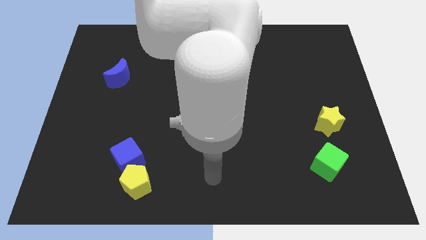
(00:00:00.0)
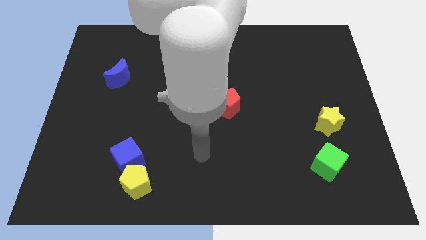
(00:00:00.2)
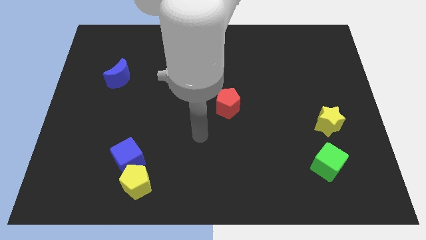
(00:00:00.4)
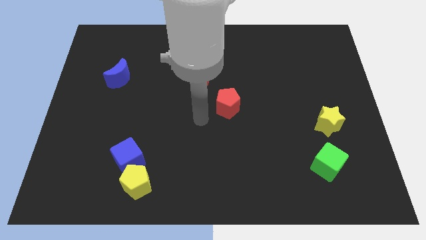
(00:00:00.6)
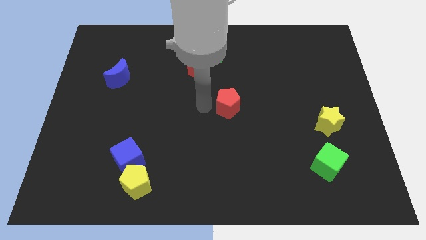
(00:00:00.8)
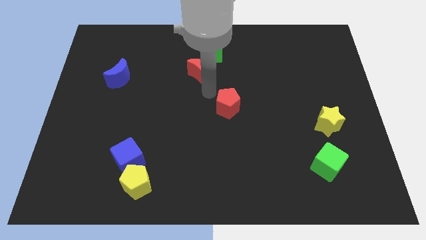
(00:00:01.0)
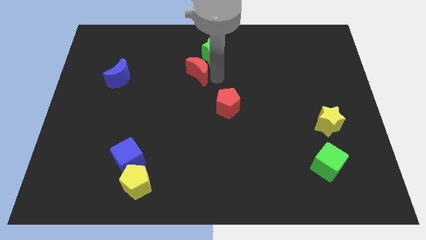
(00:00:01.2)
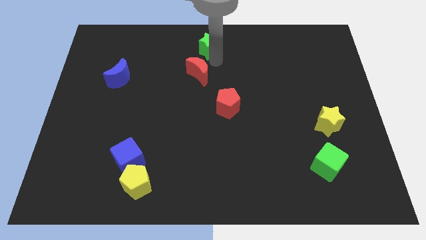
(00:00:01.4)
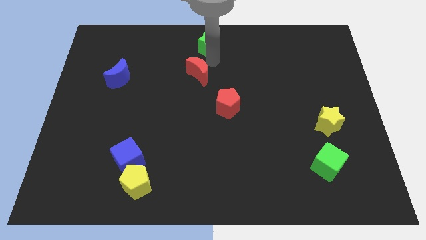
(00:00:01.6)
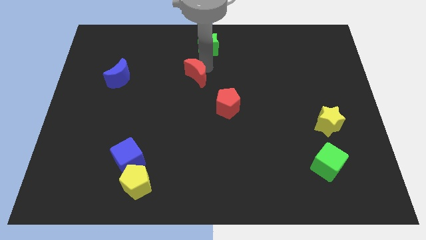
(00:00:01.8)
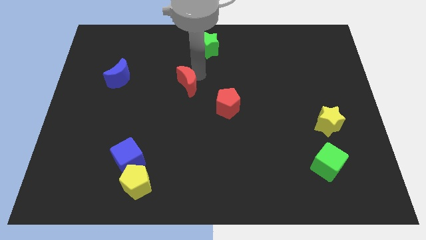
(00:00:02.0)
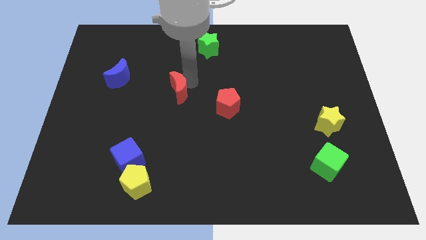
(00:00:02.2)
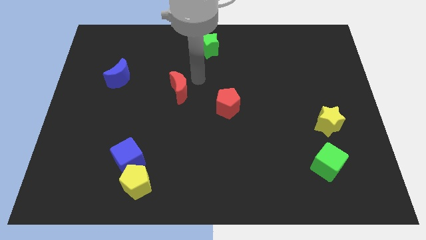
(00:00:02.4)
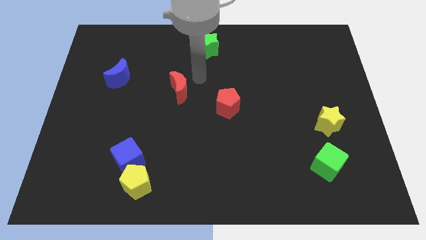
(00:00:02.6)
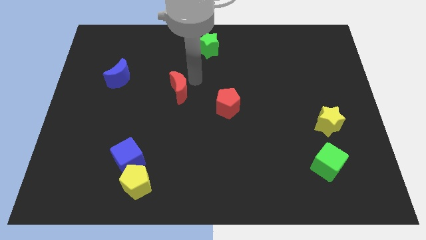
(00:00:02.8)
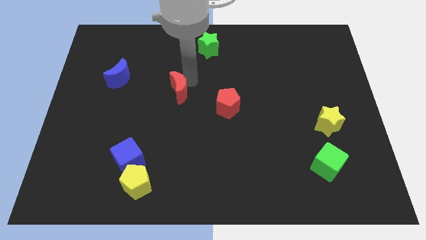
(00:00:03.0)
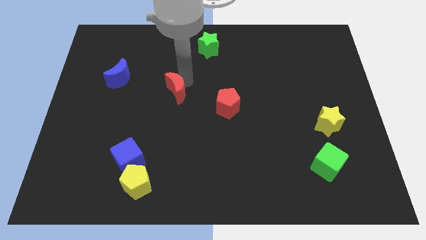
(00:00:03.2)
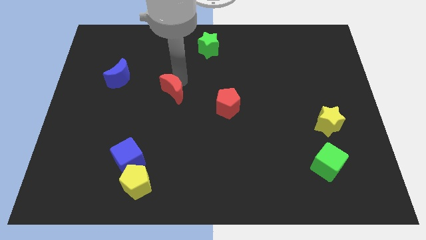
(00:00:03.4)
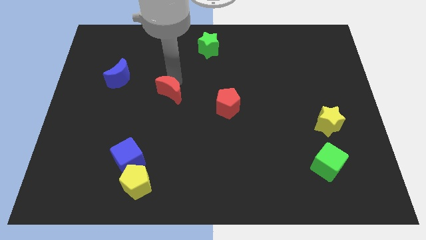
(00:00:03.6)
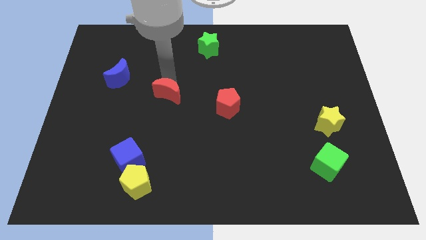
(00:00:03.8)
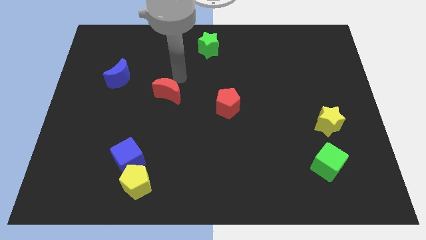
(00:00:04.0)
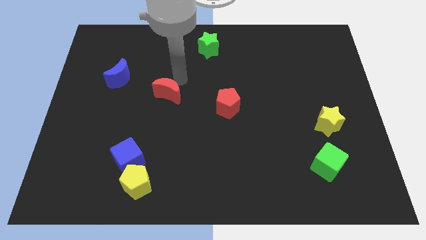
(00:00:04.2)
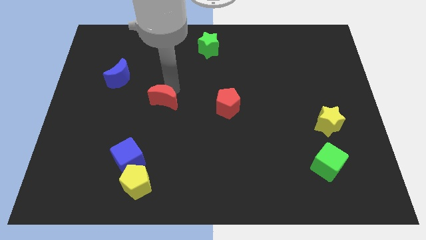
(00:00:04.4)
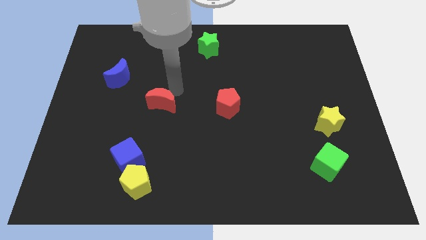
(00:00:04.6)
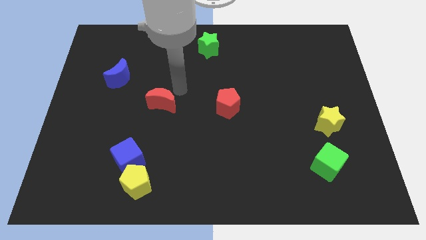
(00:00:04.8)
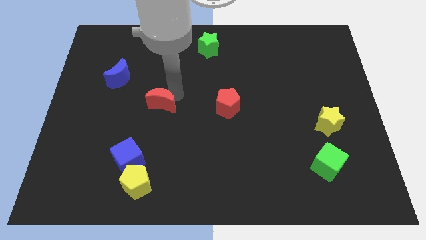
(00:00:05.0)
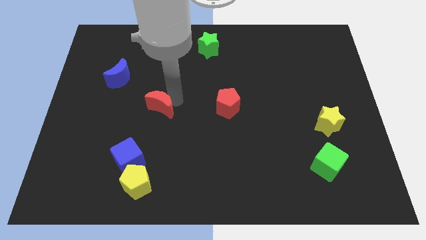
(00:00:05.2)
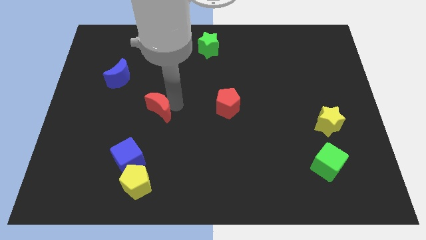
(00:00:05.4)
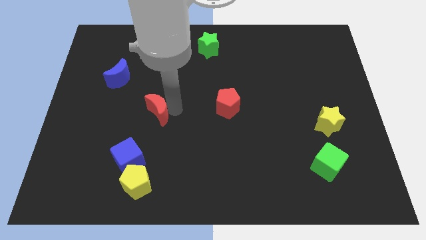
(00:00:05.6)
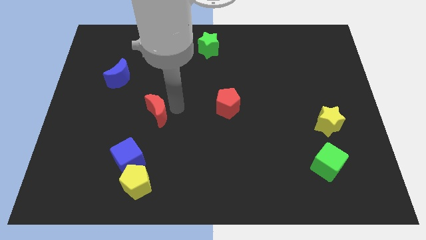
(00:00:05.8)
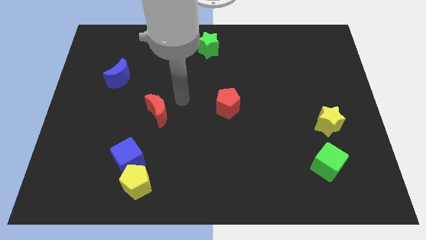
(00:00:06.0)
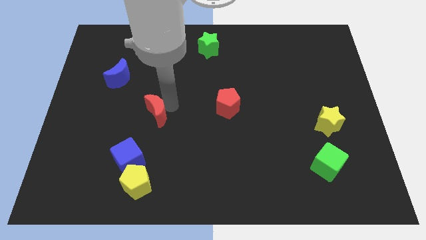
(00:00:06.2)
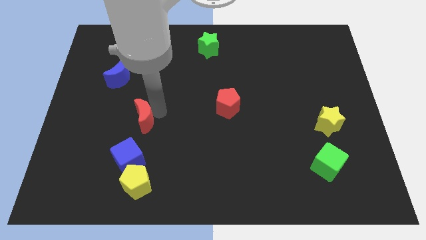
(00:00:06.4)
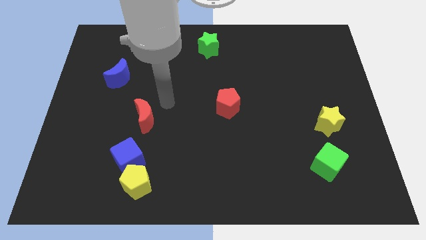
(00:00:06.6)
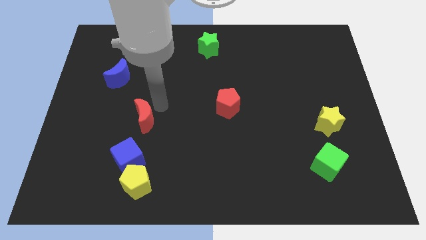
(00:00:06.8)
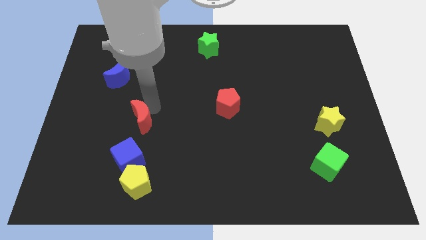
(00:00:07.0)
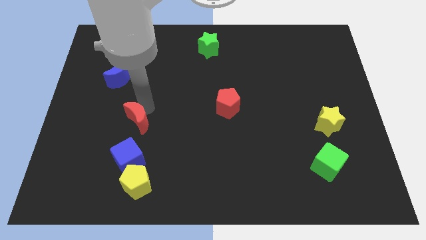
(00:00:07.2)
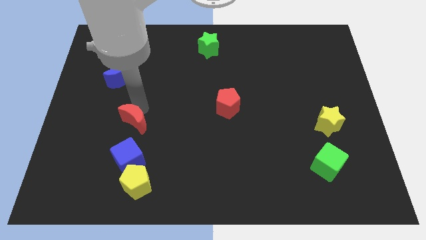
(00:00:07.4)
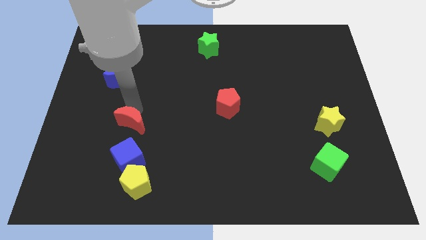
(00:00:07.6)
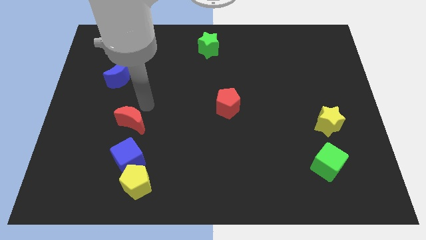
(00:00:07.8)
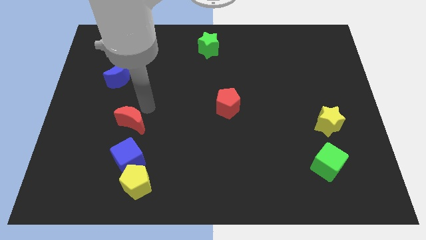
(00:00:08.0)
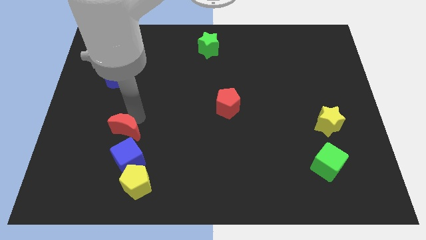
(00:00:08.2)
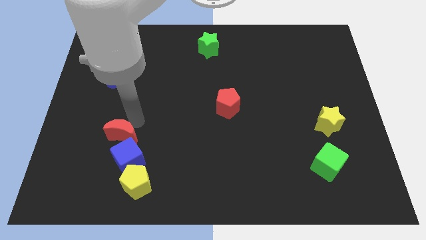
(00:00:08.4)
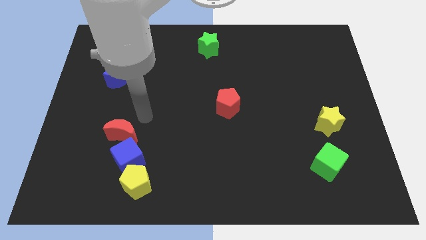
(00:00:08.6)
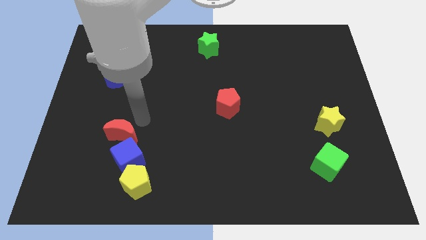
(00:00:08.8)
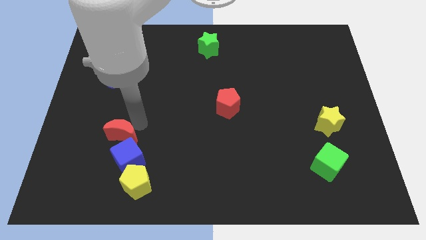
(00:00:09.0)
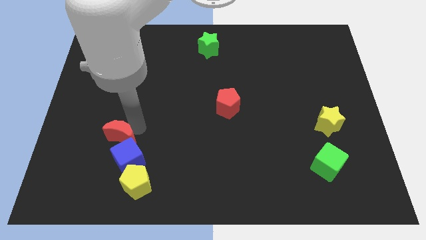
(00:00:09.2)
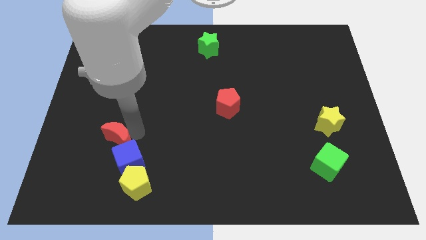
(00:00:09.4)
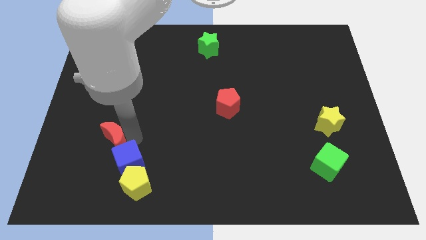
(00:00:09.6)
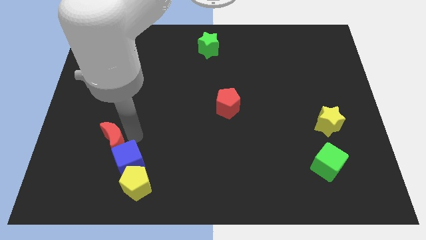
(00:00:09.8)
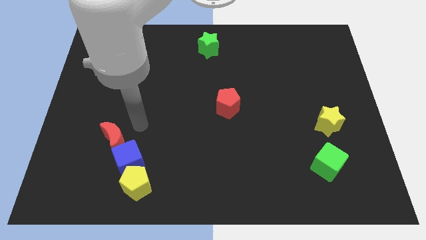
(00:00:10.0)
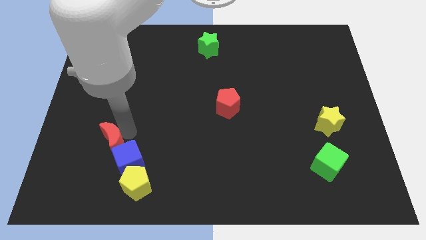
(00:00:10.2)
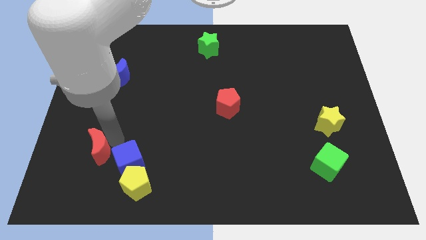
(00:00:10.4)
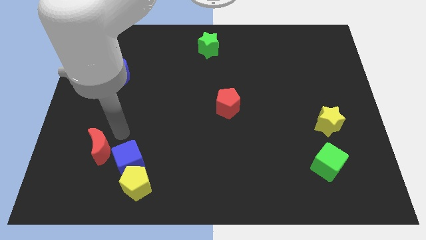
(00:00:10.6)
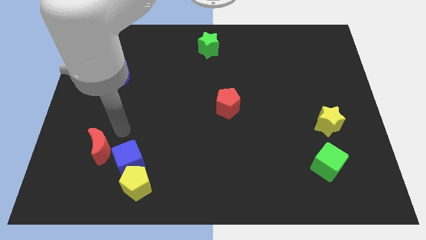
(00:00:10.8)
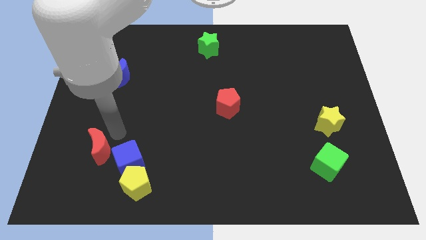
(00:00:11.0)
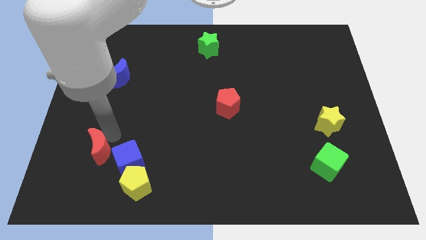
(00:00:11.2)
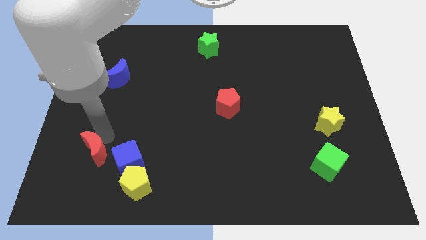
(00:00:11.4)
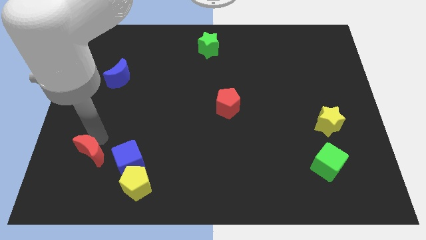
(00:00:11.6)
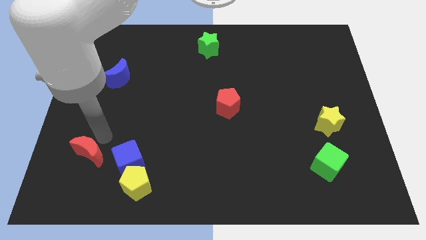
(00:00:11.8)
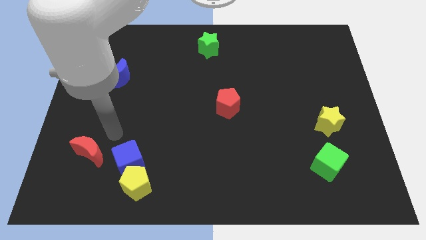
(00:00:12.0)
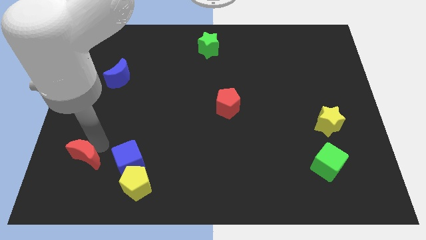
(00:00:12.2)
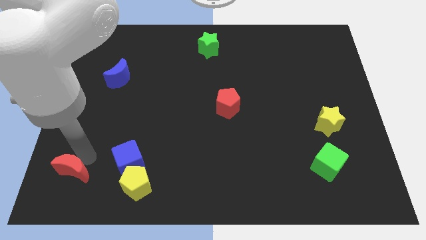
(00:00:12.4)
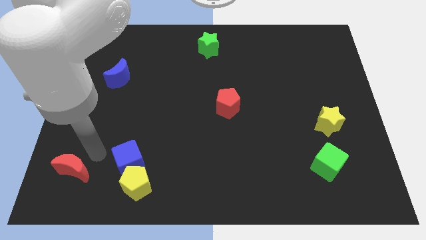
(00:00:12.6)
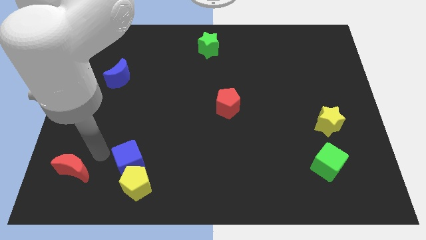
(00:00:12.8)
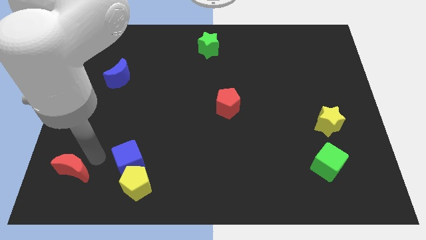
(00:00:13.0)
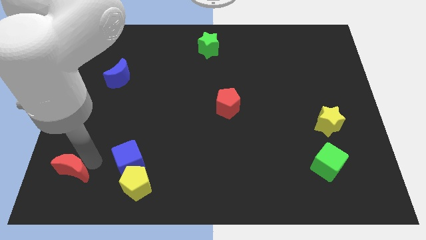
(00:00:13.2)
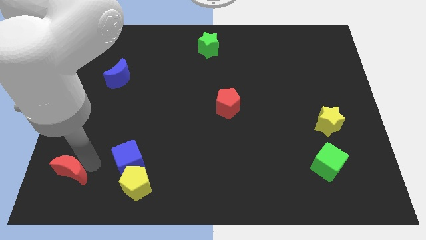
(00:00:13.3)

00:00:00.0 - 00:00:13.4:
push the red moon to the bottom left of the board

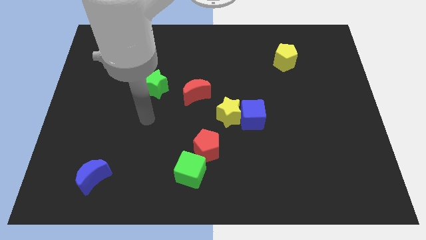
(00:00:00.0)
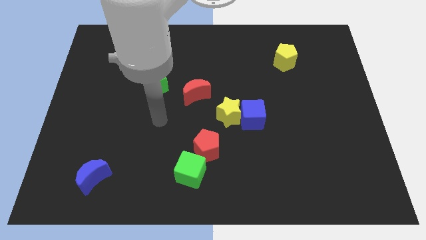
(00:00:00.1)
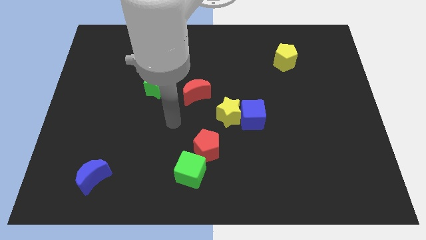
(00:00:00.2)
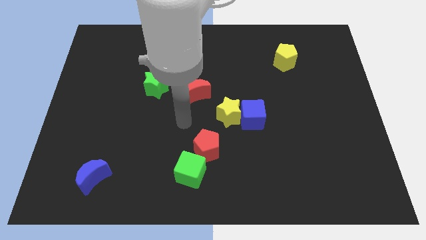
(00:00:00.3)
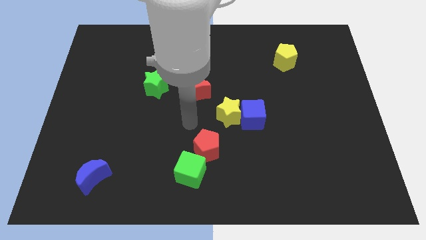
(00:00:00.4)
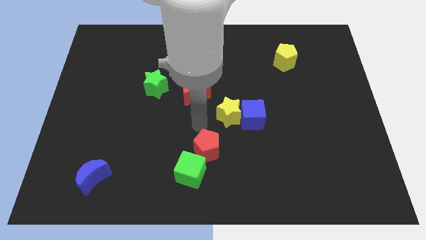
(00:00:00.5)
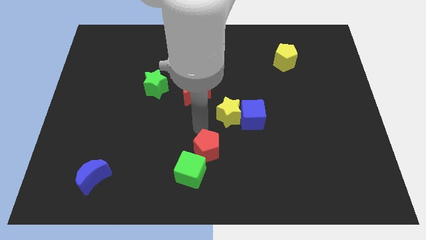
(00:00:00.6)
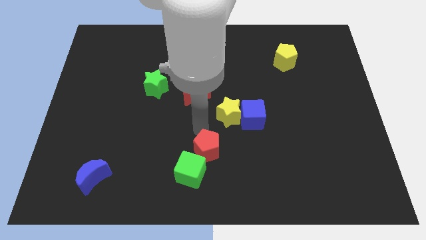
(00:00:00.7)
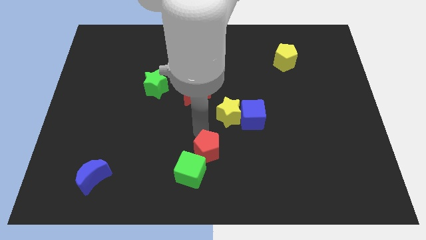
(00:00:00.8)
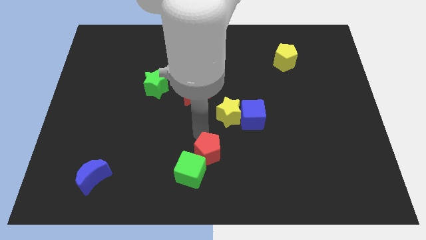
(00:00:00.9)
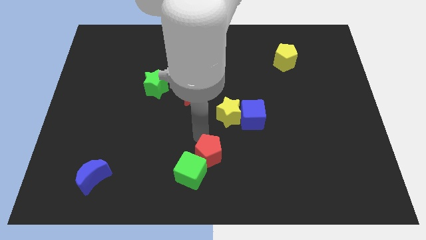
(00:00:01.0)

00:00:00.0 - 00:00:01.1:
push the red pentagon to the bottom
